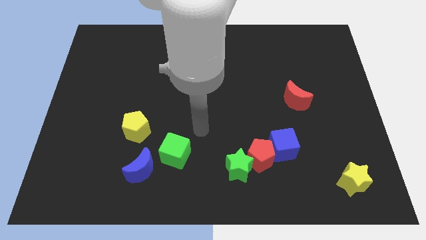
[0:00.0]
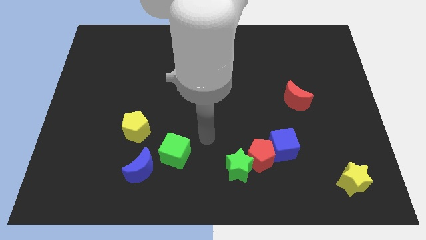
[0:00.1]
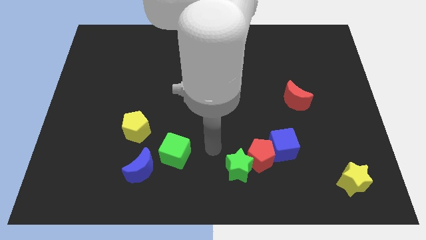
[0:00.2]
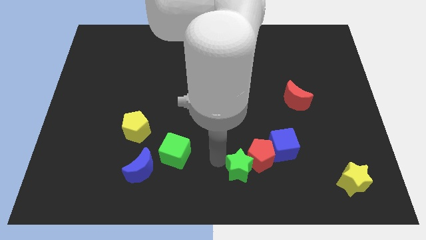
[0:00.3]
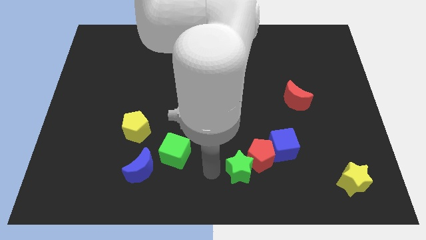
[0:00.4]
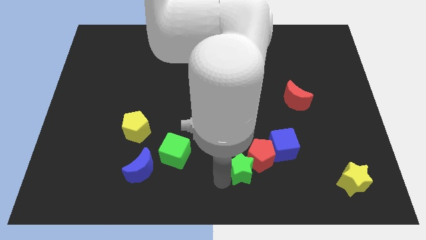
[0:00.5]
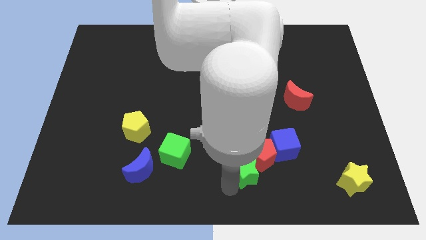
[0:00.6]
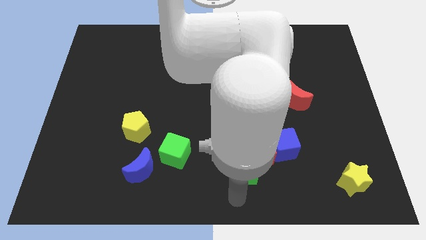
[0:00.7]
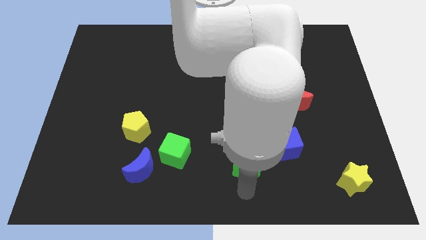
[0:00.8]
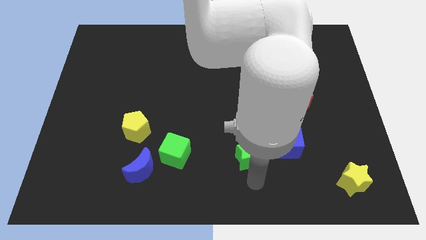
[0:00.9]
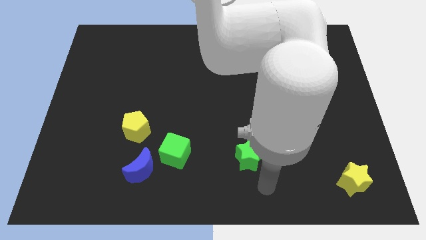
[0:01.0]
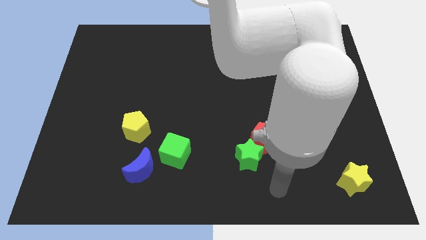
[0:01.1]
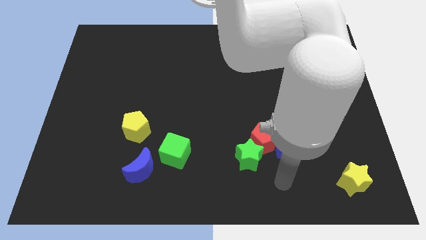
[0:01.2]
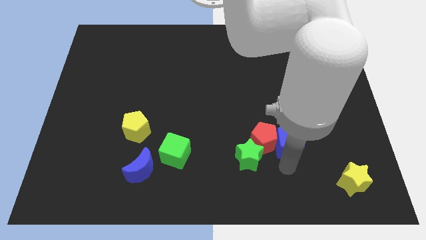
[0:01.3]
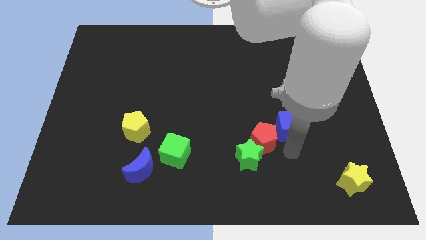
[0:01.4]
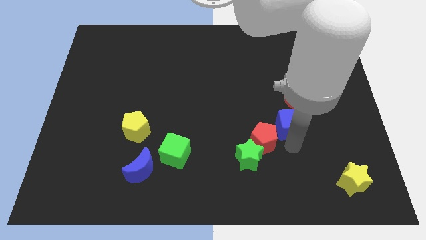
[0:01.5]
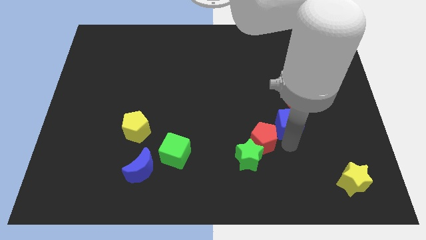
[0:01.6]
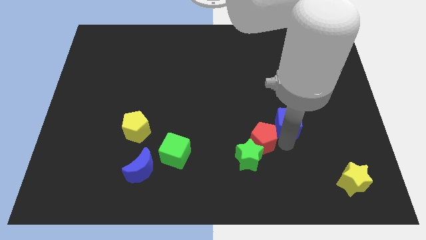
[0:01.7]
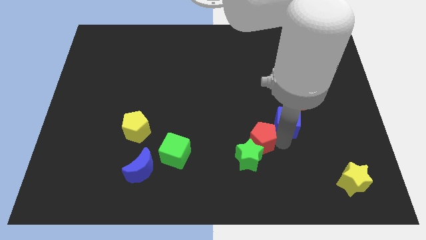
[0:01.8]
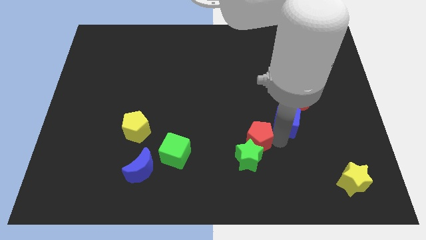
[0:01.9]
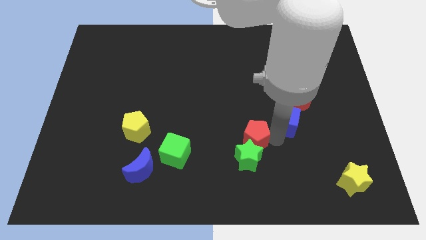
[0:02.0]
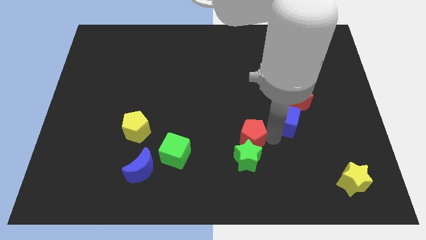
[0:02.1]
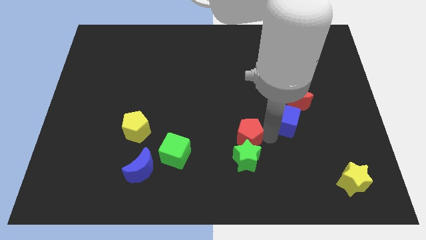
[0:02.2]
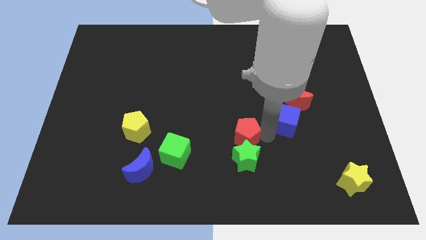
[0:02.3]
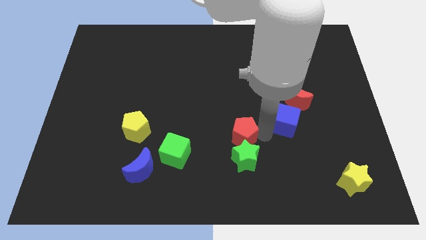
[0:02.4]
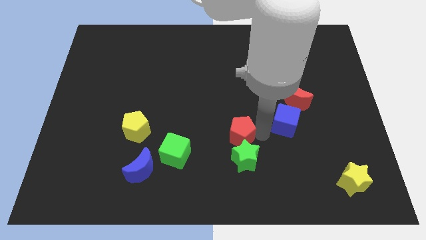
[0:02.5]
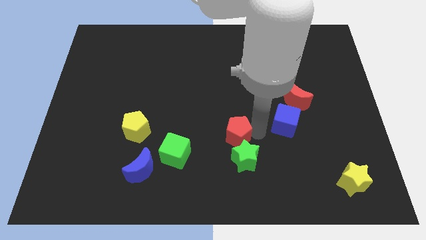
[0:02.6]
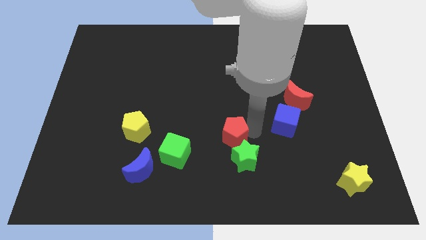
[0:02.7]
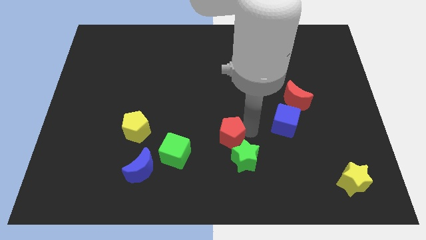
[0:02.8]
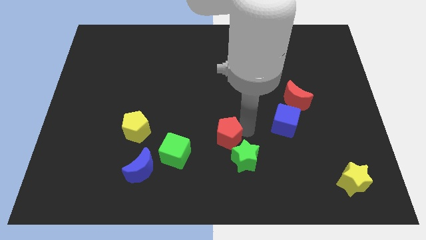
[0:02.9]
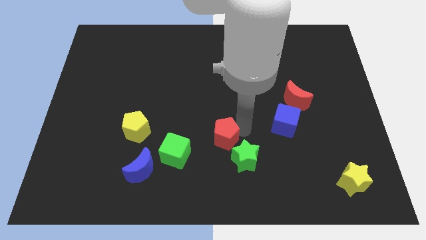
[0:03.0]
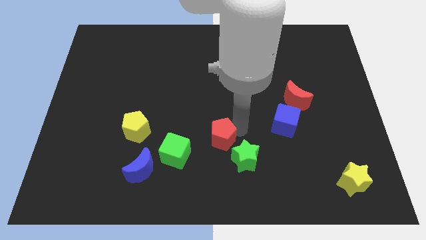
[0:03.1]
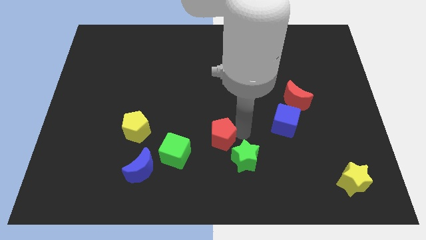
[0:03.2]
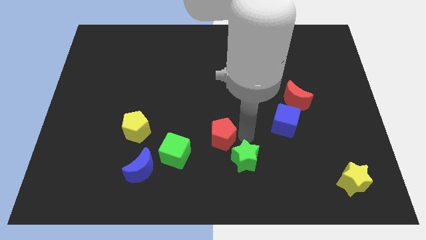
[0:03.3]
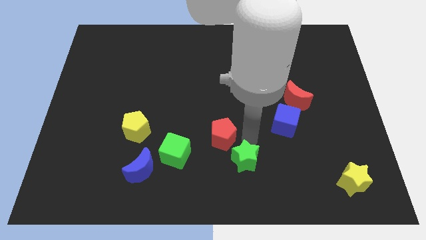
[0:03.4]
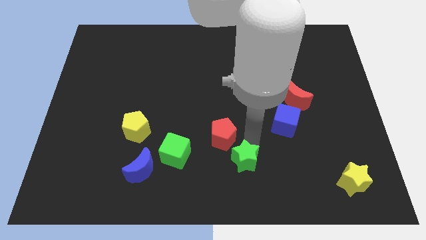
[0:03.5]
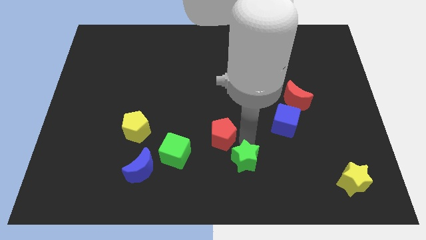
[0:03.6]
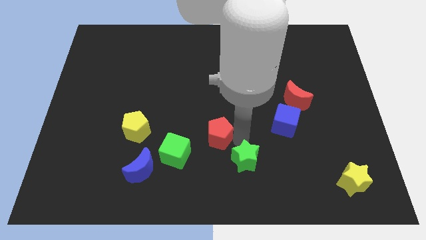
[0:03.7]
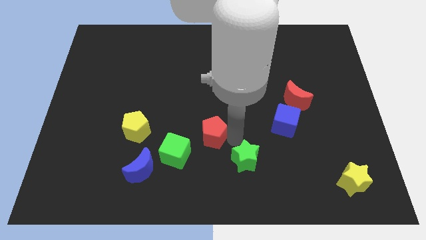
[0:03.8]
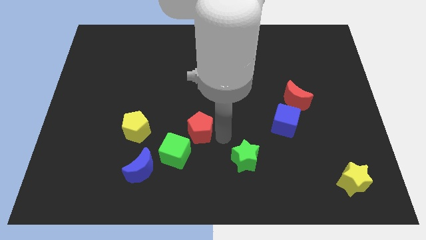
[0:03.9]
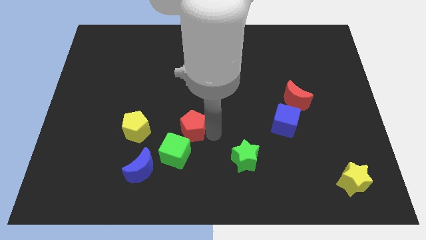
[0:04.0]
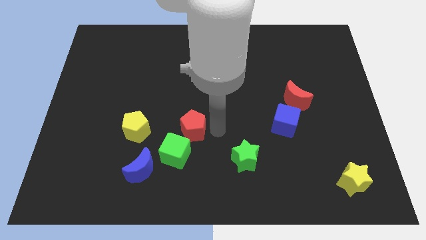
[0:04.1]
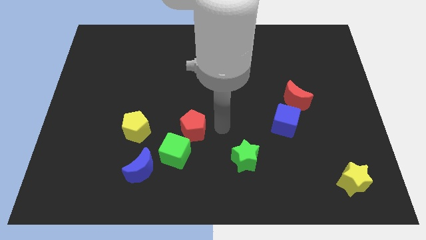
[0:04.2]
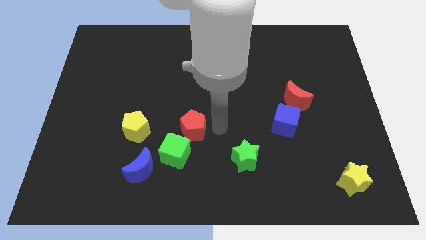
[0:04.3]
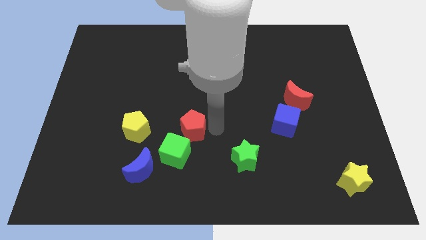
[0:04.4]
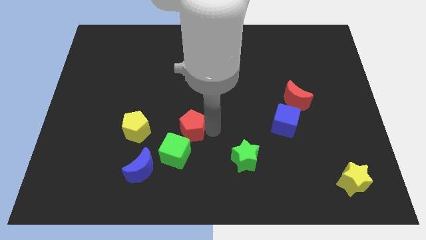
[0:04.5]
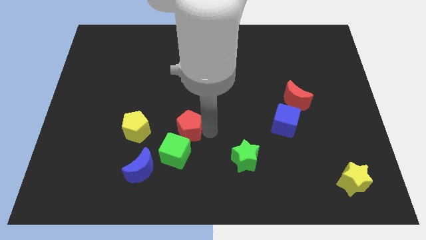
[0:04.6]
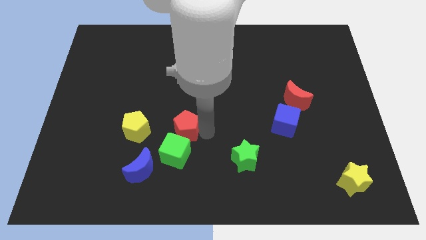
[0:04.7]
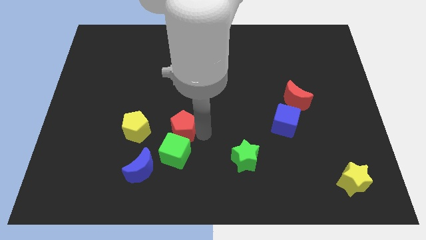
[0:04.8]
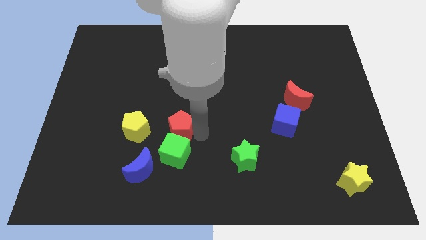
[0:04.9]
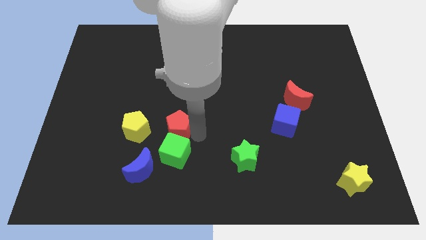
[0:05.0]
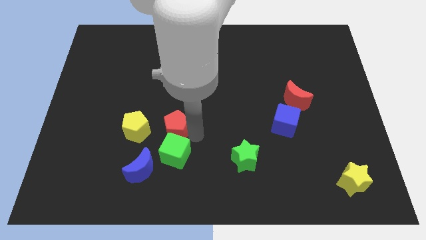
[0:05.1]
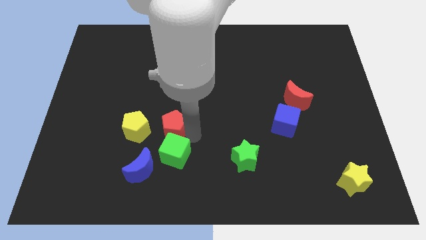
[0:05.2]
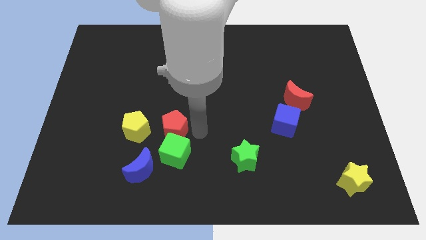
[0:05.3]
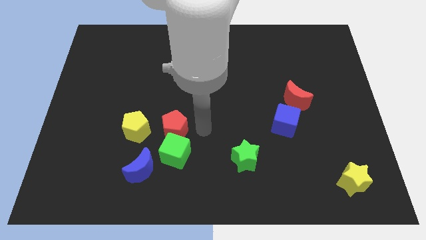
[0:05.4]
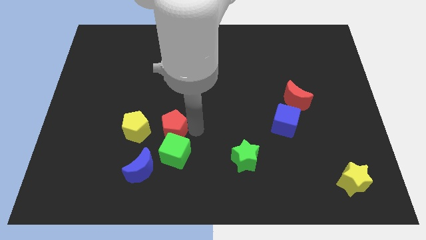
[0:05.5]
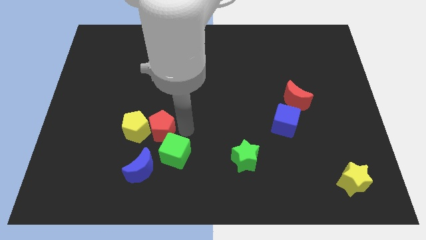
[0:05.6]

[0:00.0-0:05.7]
push the red pentagon close to the yellow pentagon

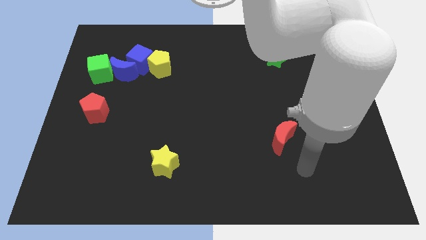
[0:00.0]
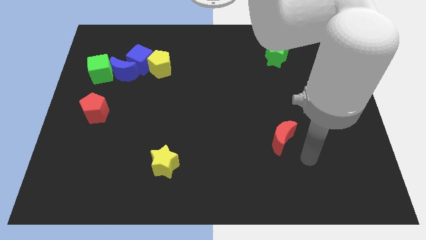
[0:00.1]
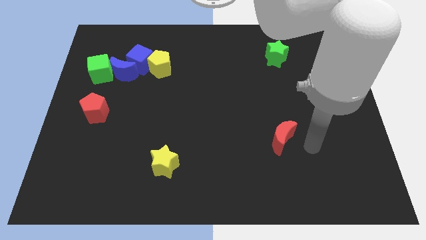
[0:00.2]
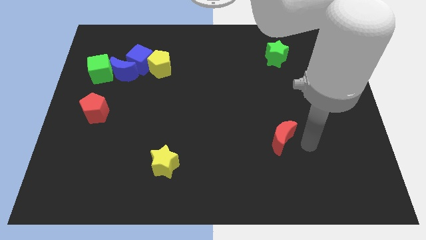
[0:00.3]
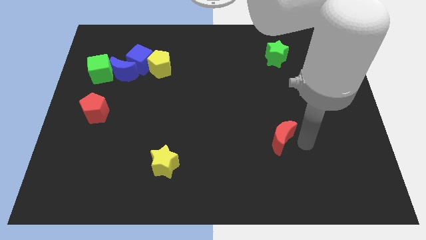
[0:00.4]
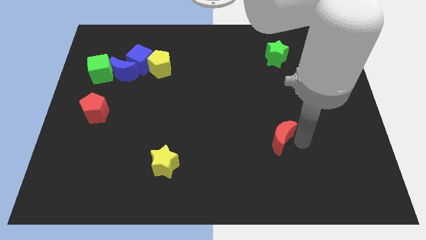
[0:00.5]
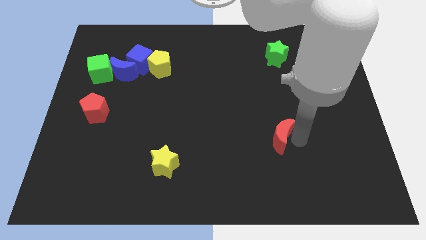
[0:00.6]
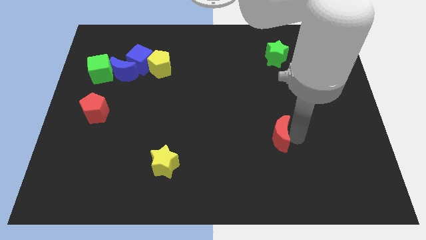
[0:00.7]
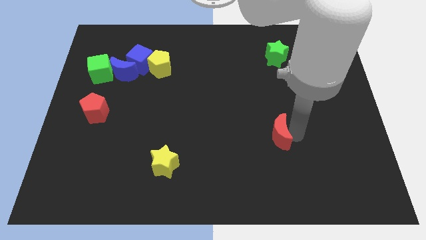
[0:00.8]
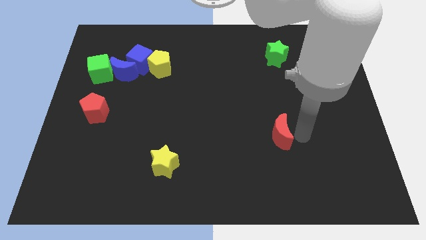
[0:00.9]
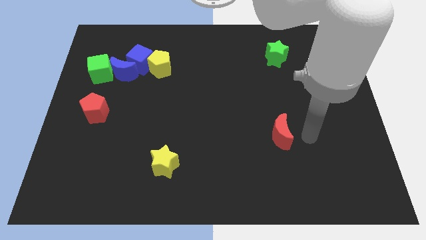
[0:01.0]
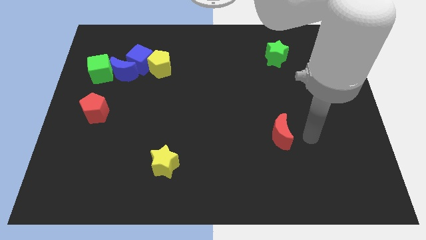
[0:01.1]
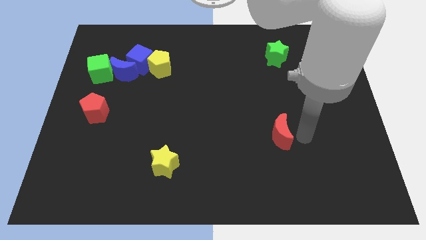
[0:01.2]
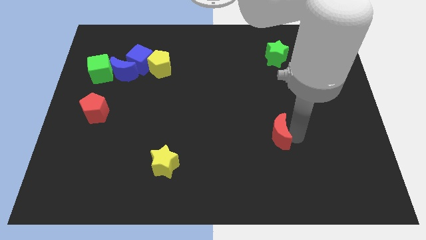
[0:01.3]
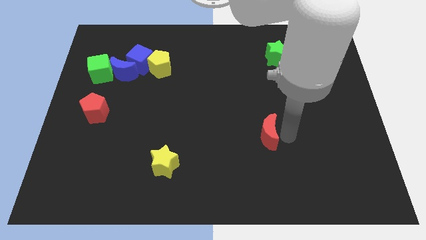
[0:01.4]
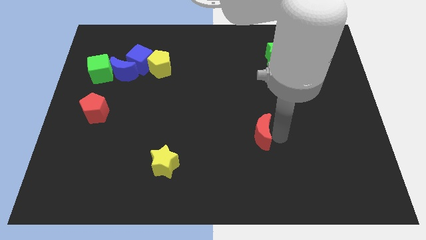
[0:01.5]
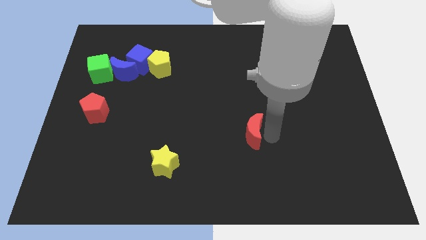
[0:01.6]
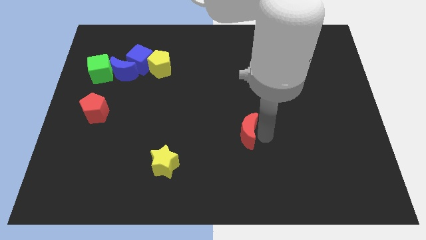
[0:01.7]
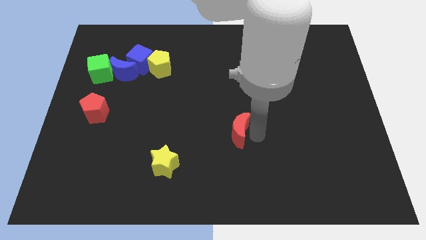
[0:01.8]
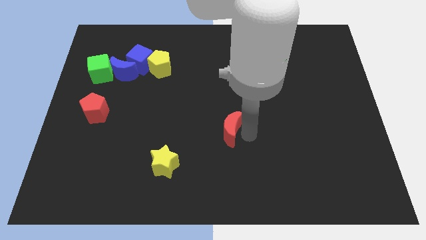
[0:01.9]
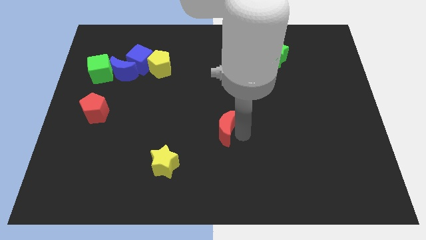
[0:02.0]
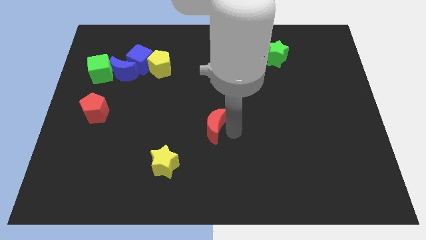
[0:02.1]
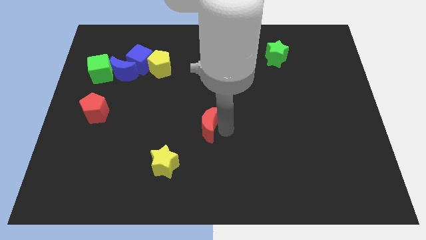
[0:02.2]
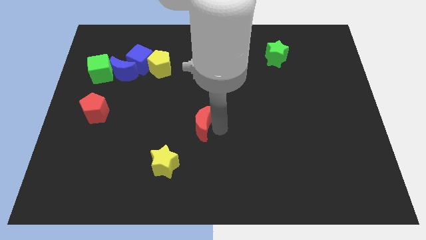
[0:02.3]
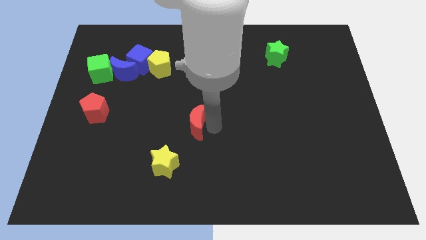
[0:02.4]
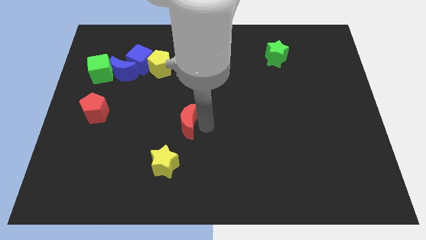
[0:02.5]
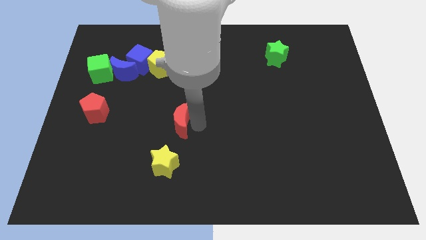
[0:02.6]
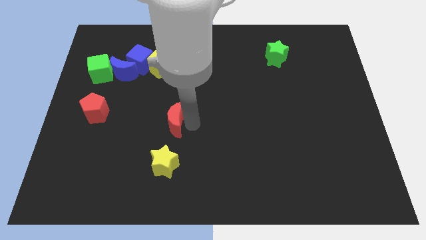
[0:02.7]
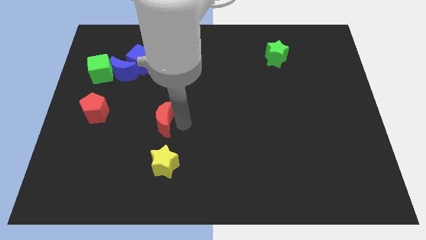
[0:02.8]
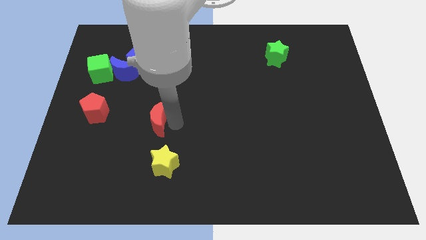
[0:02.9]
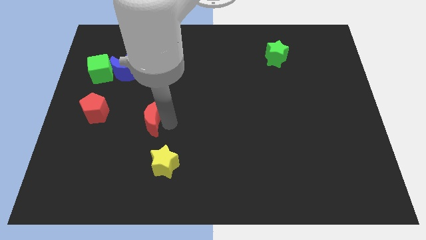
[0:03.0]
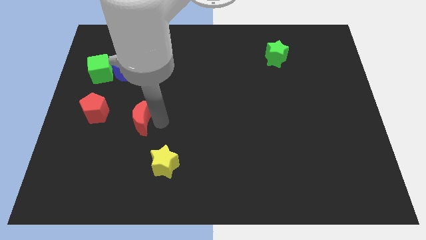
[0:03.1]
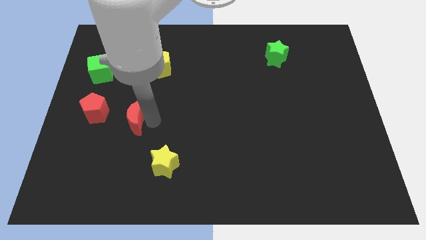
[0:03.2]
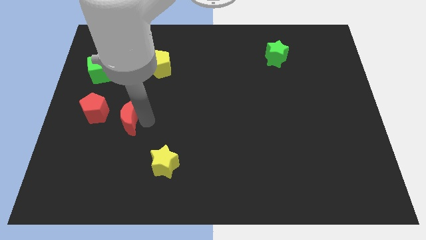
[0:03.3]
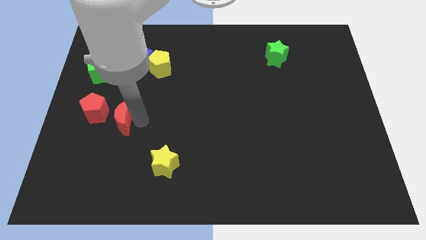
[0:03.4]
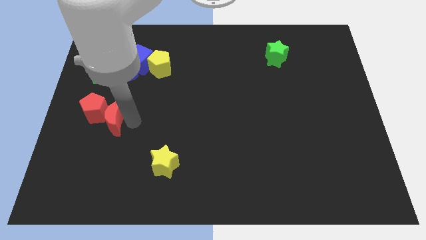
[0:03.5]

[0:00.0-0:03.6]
move the red moon next to the red pentagon
